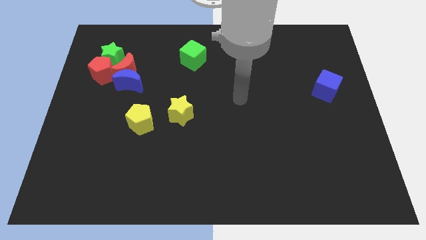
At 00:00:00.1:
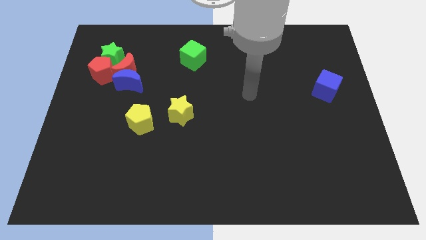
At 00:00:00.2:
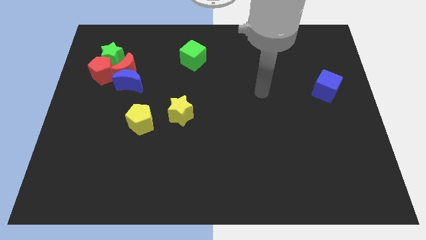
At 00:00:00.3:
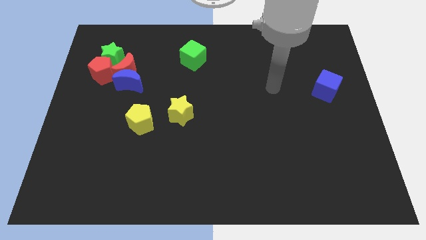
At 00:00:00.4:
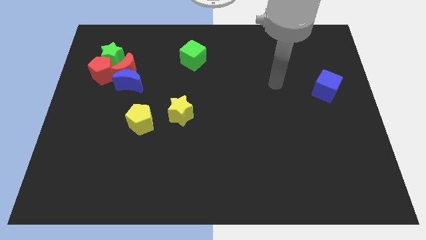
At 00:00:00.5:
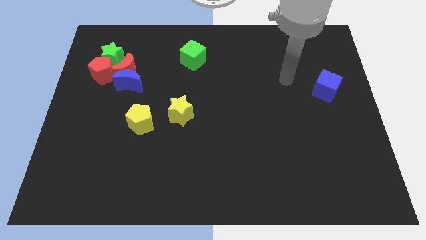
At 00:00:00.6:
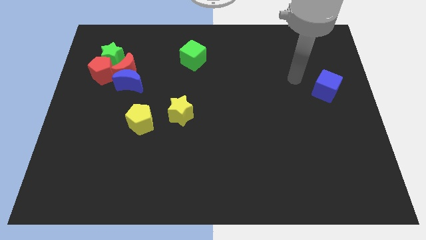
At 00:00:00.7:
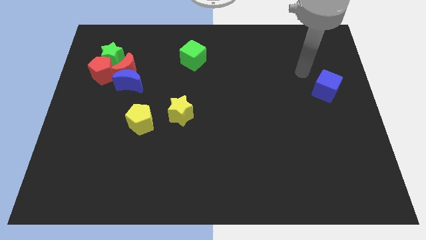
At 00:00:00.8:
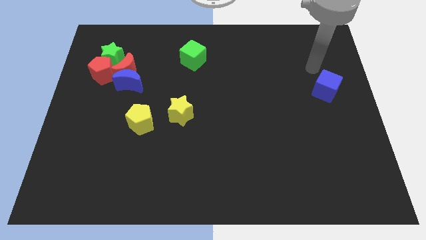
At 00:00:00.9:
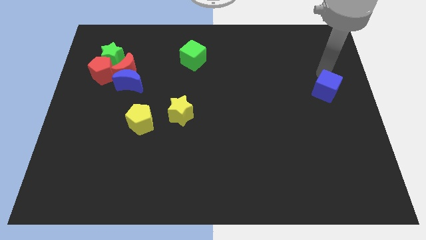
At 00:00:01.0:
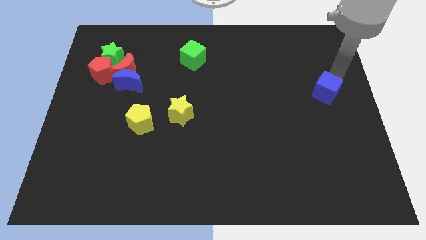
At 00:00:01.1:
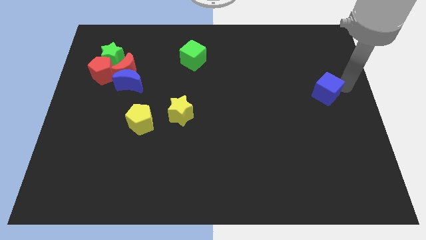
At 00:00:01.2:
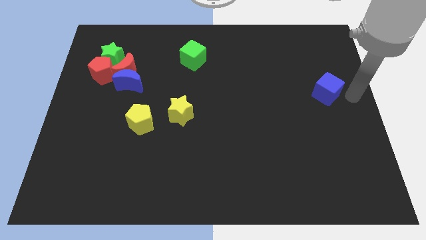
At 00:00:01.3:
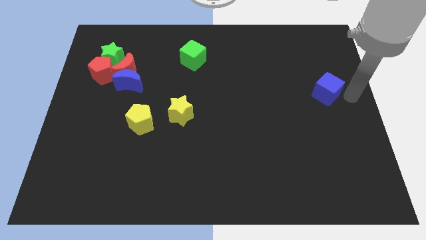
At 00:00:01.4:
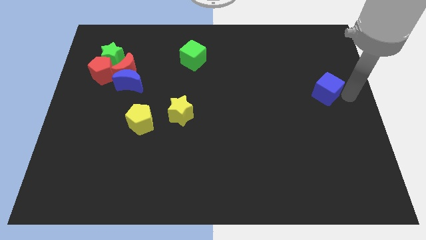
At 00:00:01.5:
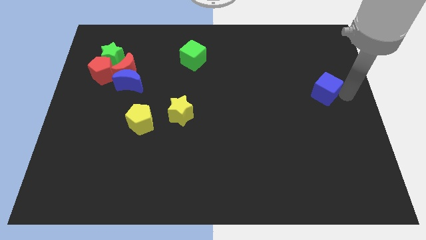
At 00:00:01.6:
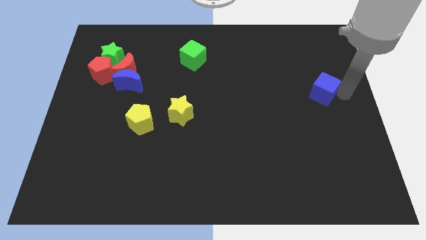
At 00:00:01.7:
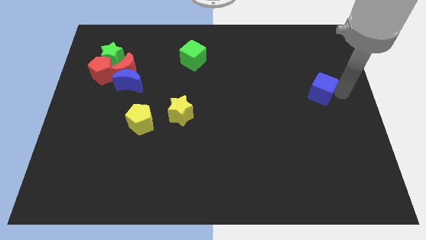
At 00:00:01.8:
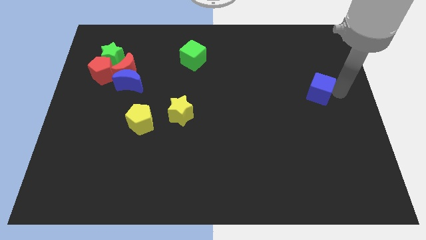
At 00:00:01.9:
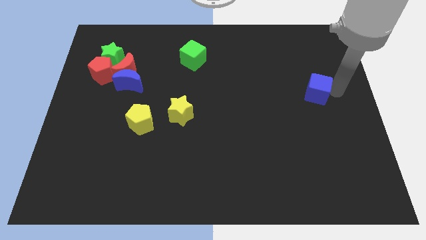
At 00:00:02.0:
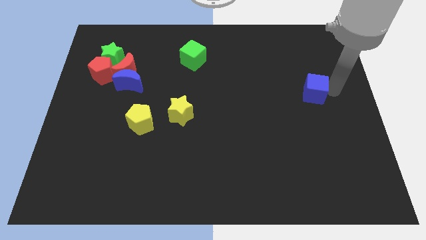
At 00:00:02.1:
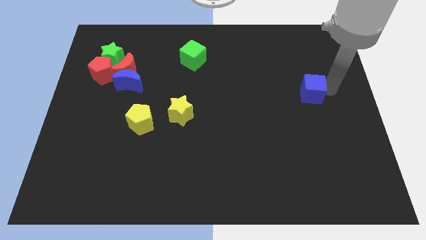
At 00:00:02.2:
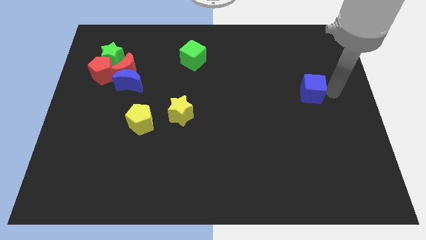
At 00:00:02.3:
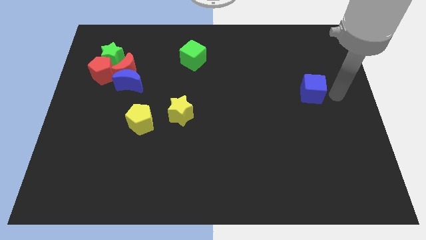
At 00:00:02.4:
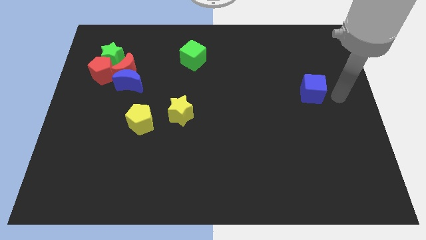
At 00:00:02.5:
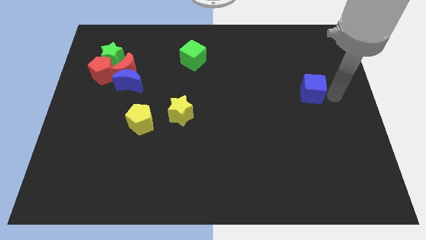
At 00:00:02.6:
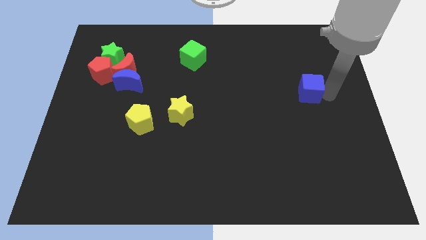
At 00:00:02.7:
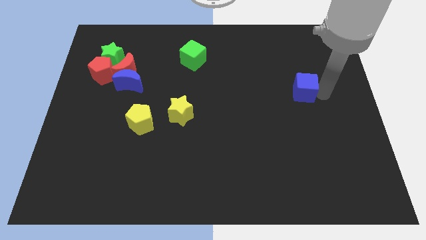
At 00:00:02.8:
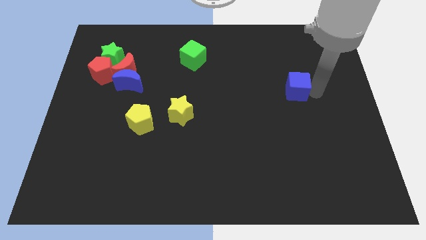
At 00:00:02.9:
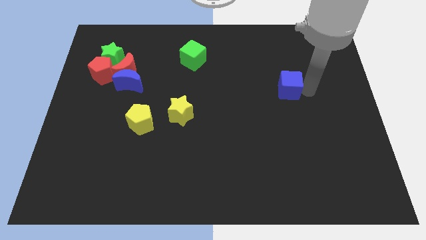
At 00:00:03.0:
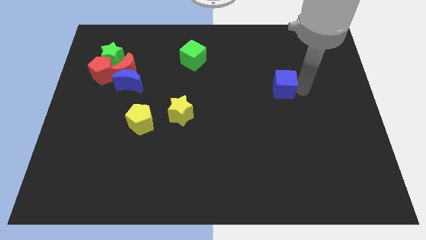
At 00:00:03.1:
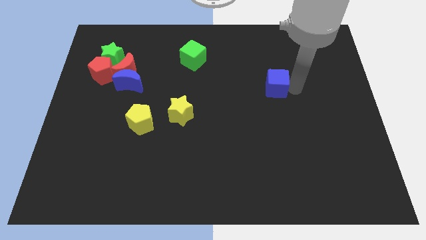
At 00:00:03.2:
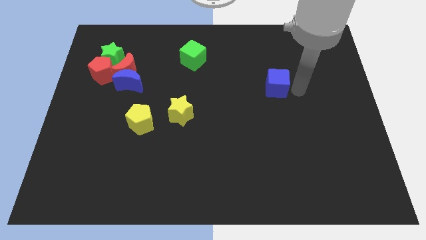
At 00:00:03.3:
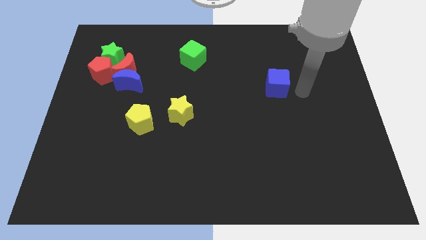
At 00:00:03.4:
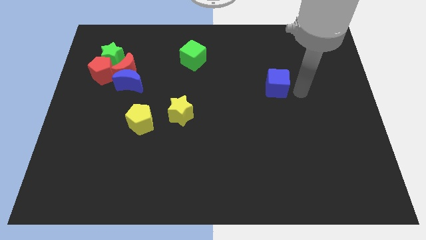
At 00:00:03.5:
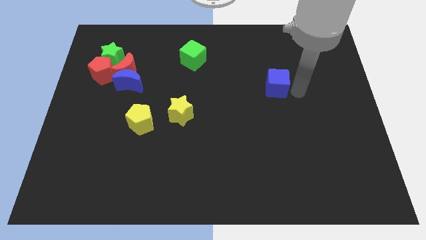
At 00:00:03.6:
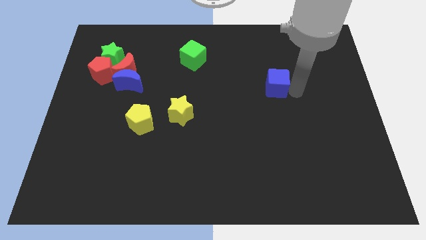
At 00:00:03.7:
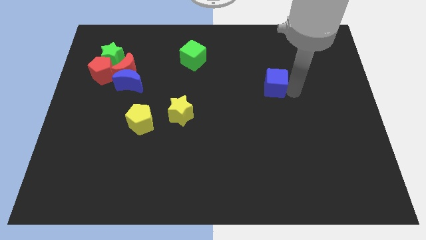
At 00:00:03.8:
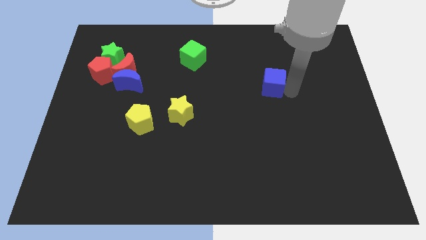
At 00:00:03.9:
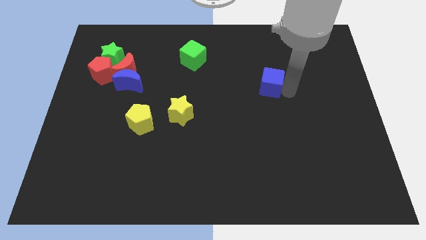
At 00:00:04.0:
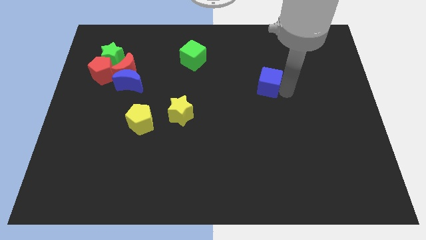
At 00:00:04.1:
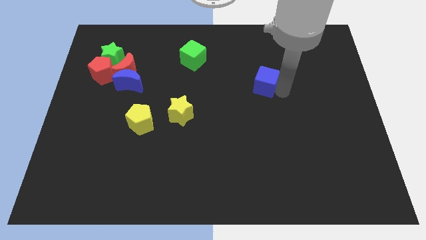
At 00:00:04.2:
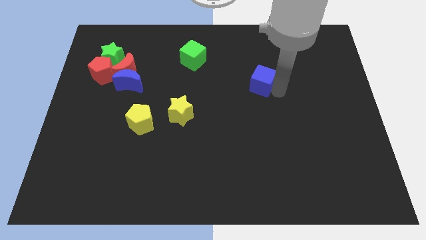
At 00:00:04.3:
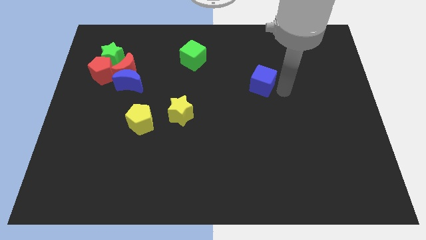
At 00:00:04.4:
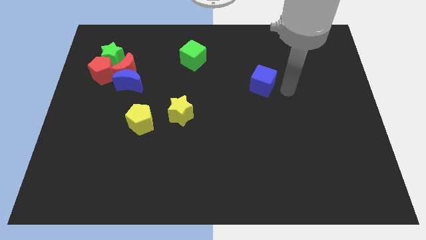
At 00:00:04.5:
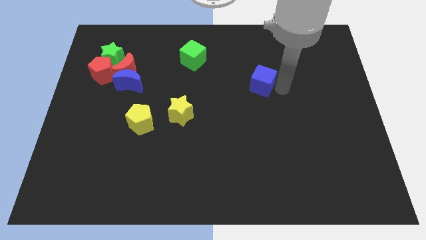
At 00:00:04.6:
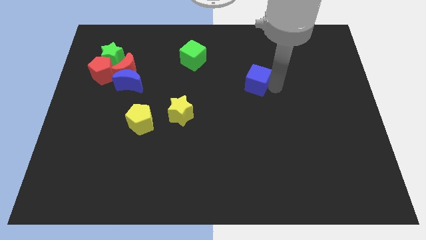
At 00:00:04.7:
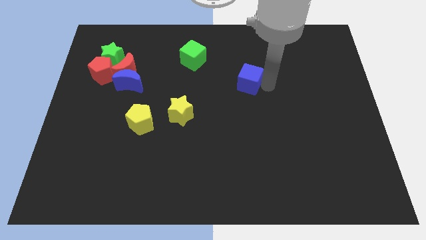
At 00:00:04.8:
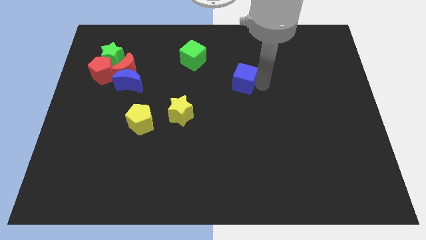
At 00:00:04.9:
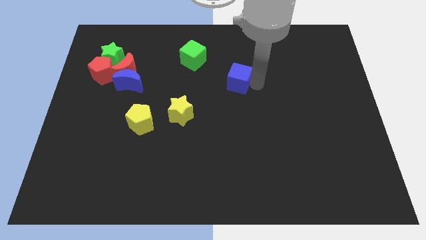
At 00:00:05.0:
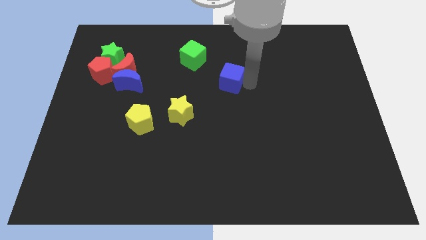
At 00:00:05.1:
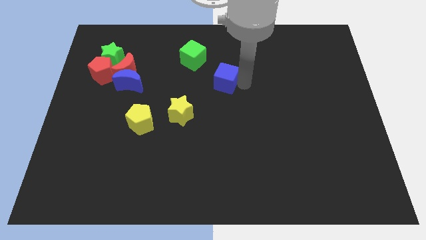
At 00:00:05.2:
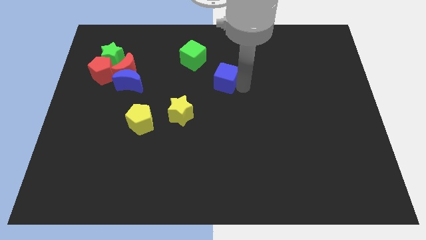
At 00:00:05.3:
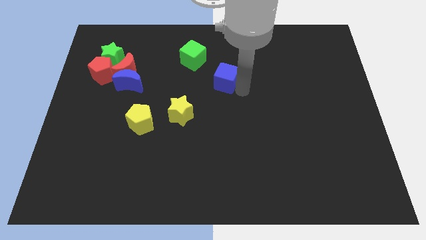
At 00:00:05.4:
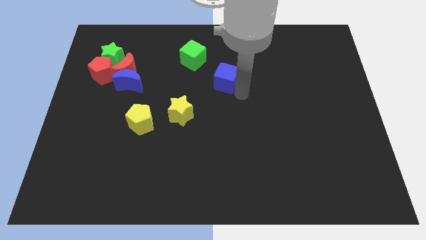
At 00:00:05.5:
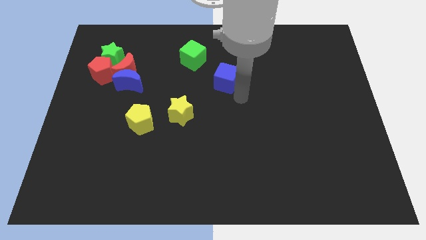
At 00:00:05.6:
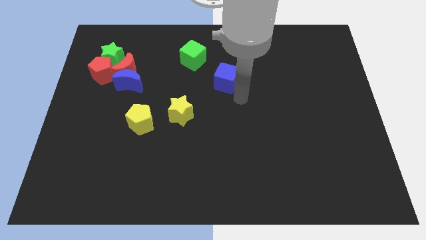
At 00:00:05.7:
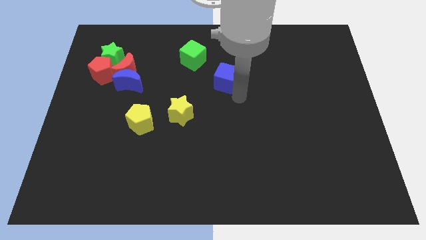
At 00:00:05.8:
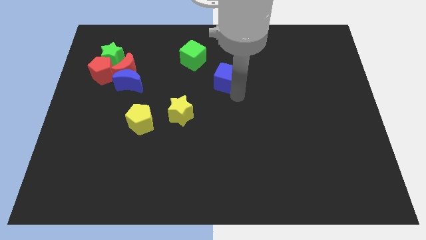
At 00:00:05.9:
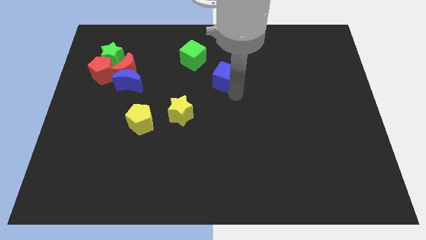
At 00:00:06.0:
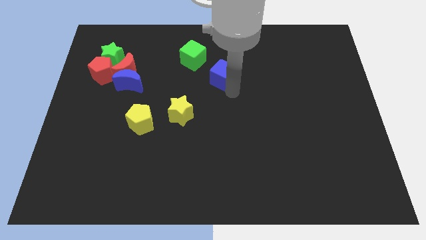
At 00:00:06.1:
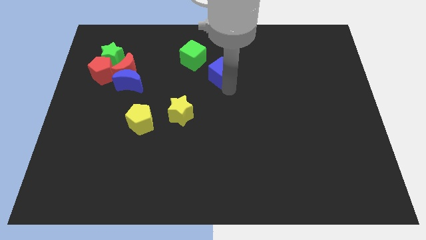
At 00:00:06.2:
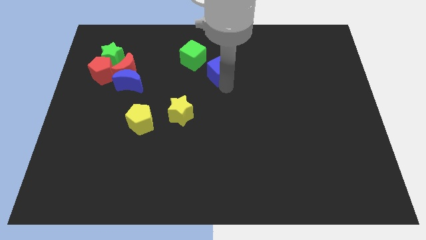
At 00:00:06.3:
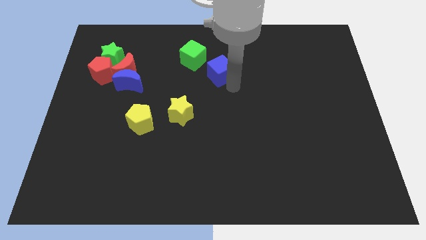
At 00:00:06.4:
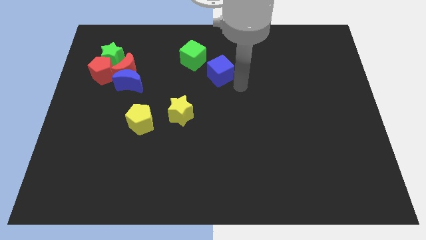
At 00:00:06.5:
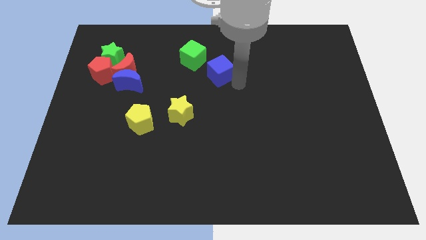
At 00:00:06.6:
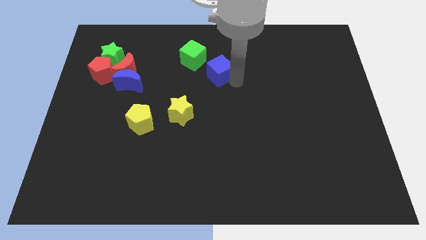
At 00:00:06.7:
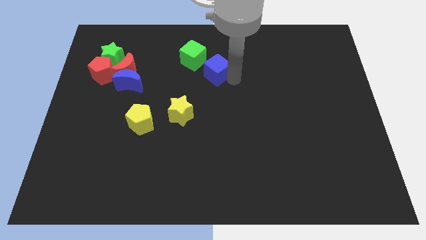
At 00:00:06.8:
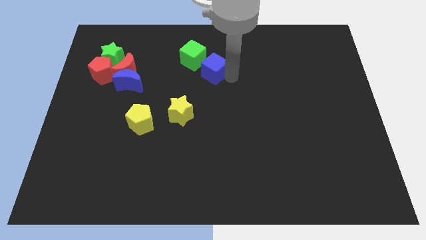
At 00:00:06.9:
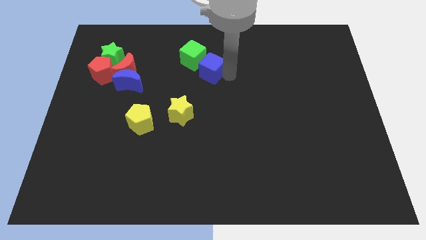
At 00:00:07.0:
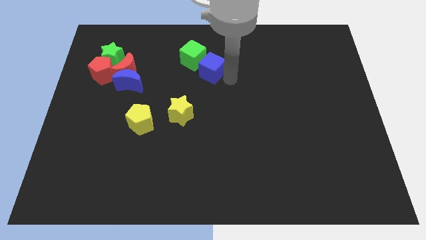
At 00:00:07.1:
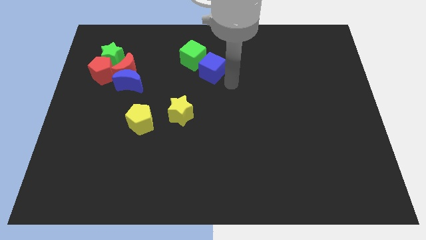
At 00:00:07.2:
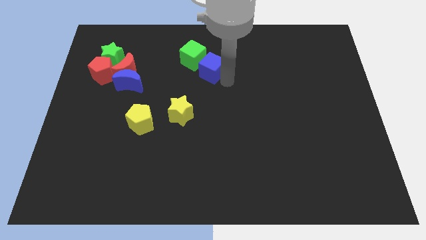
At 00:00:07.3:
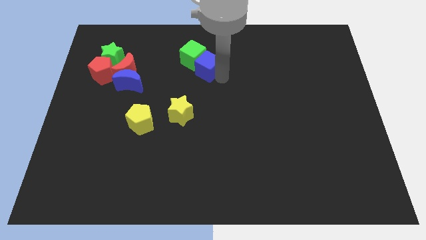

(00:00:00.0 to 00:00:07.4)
slide the blue cube to the green cube
